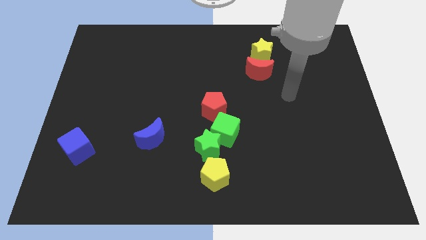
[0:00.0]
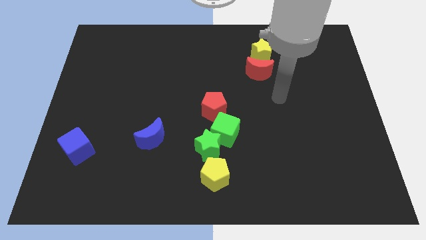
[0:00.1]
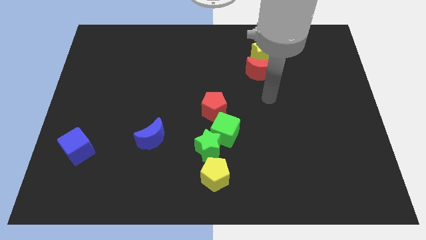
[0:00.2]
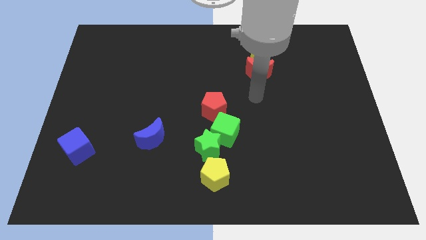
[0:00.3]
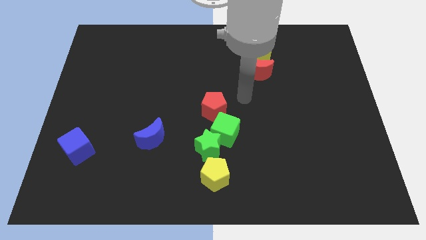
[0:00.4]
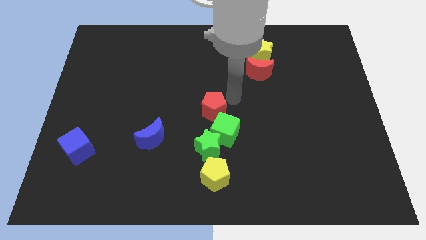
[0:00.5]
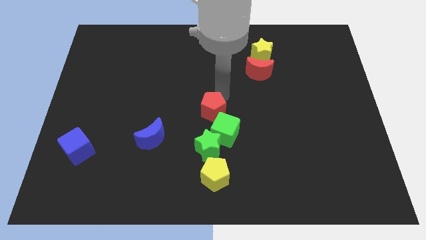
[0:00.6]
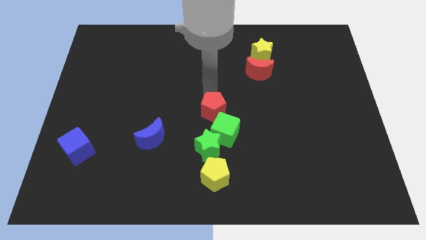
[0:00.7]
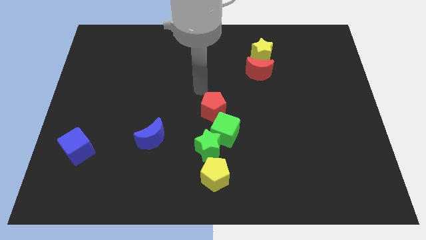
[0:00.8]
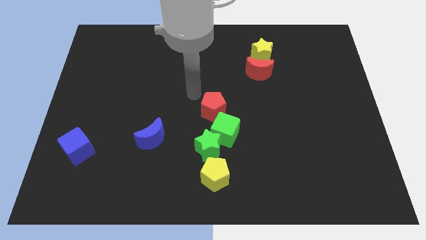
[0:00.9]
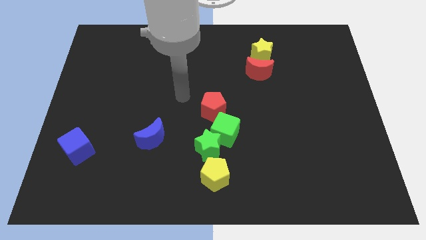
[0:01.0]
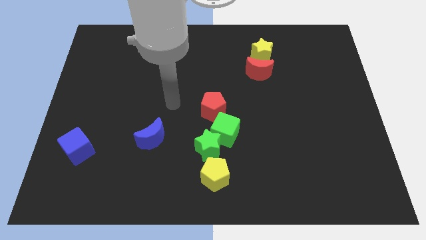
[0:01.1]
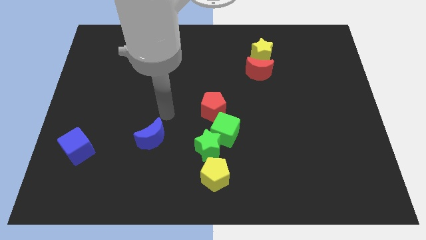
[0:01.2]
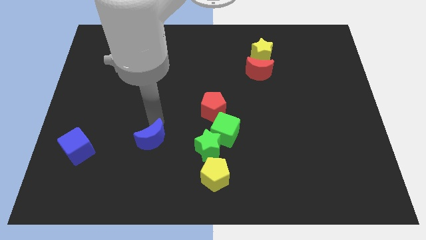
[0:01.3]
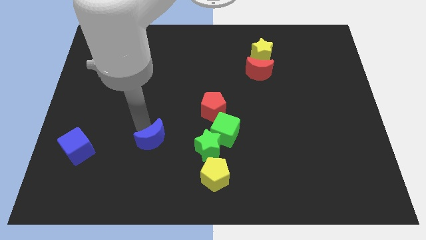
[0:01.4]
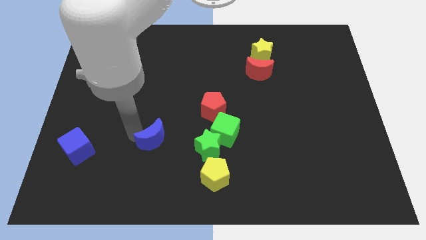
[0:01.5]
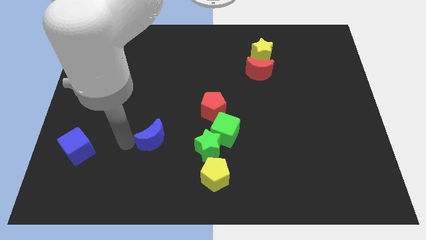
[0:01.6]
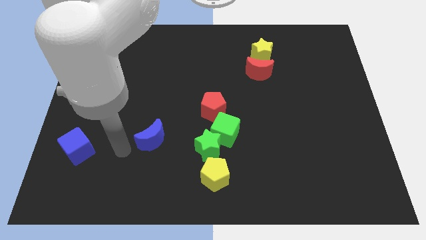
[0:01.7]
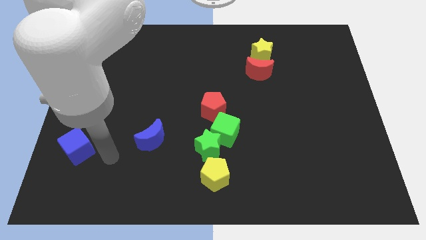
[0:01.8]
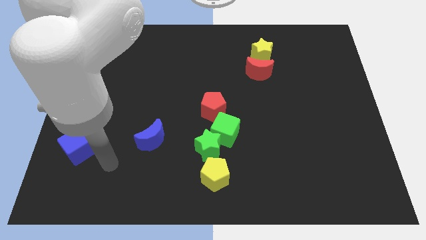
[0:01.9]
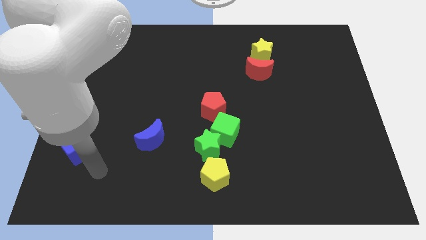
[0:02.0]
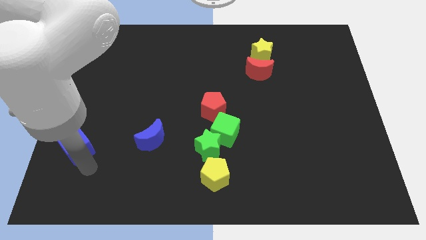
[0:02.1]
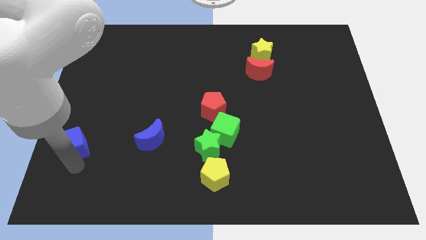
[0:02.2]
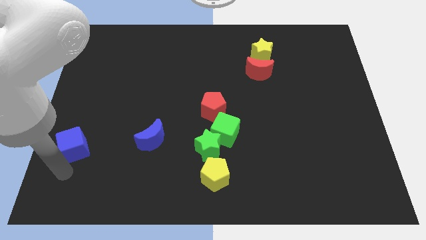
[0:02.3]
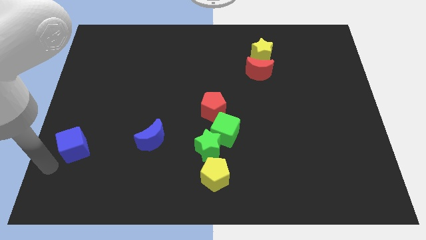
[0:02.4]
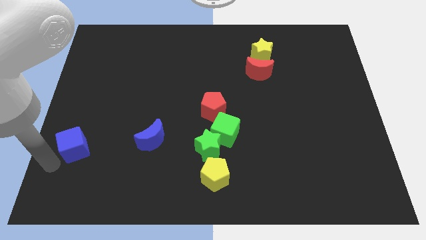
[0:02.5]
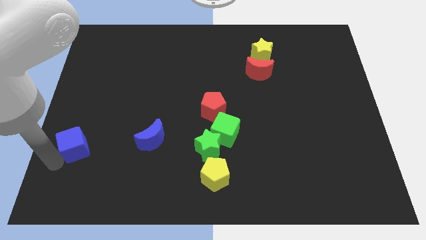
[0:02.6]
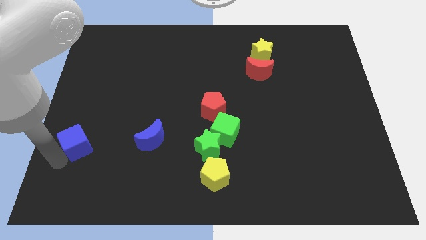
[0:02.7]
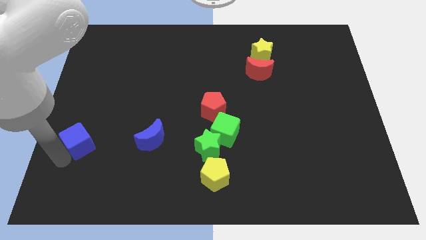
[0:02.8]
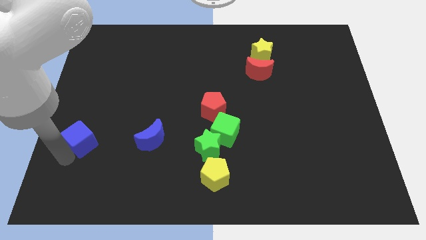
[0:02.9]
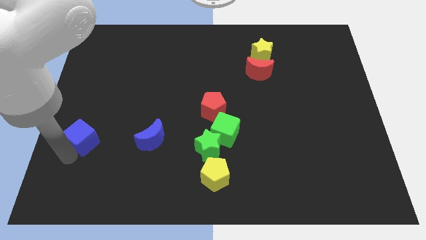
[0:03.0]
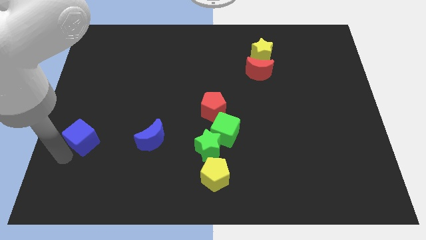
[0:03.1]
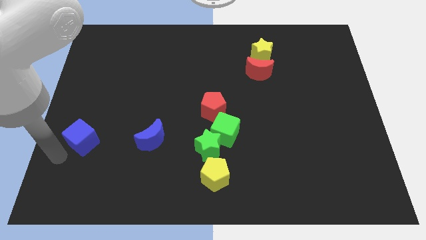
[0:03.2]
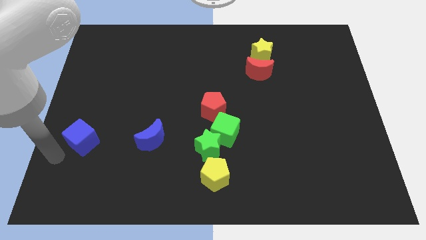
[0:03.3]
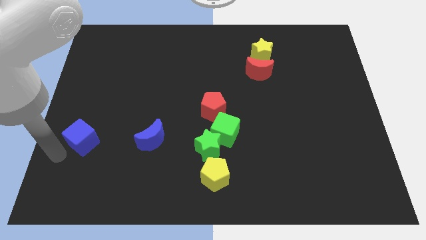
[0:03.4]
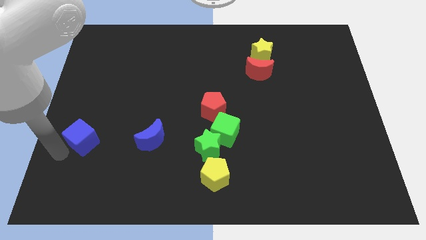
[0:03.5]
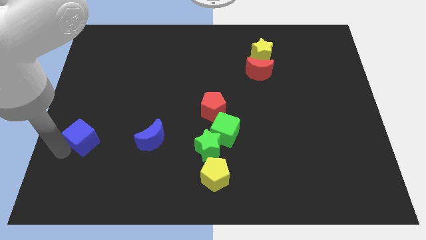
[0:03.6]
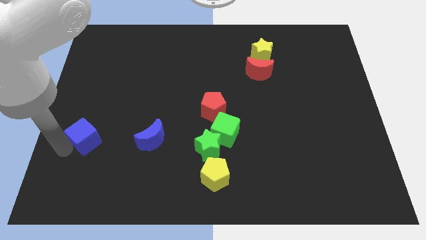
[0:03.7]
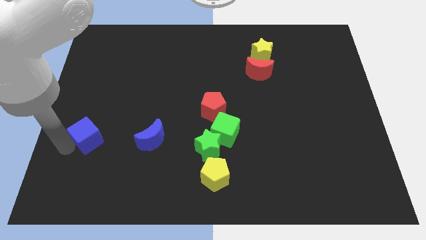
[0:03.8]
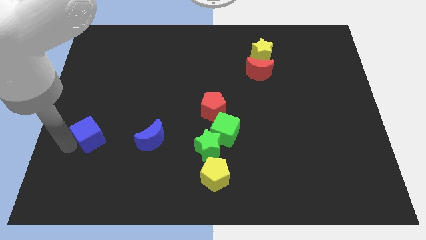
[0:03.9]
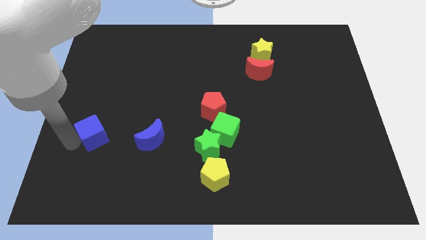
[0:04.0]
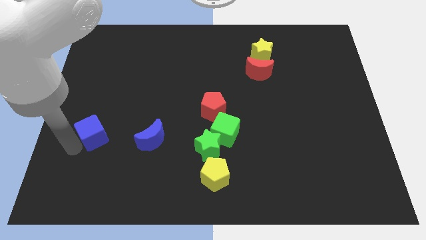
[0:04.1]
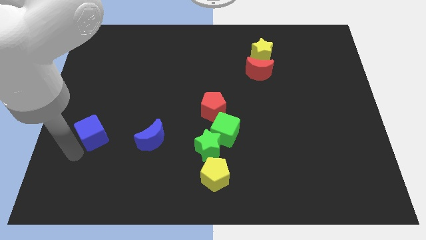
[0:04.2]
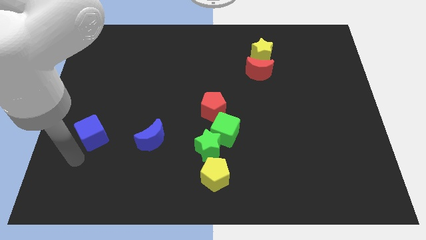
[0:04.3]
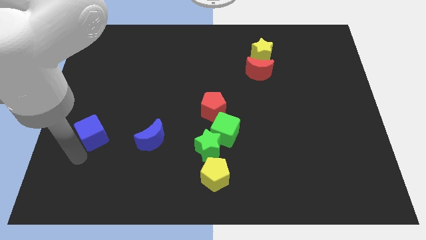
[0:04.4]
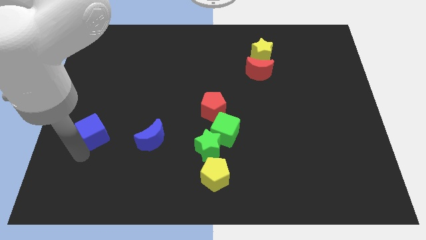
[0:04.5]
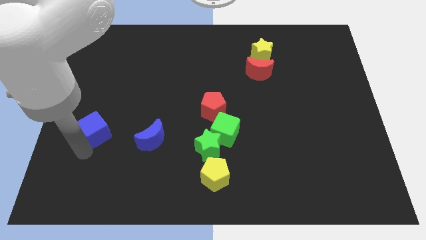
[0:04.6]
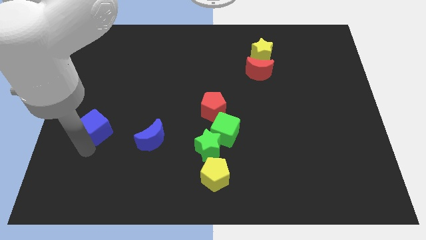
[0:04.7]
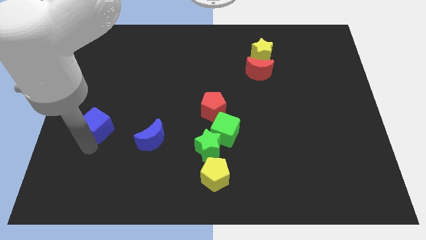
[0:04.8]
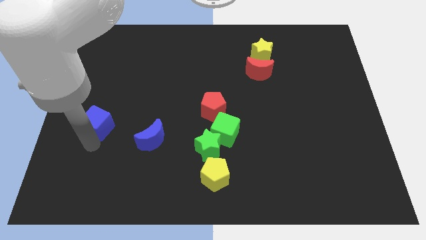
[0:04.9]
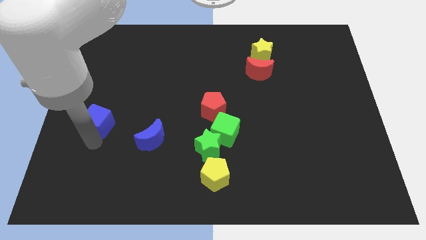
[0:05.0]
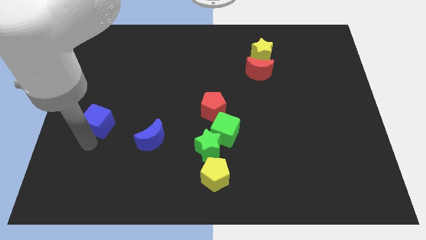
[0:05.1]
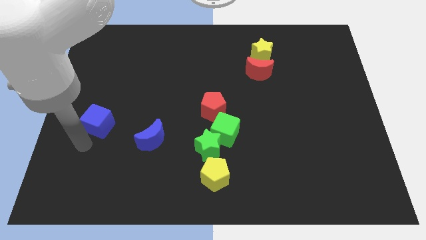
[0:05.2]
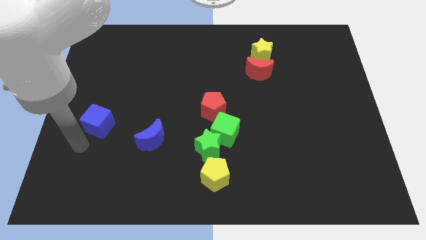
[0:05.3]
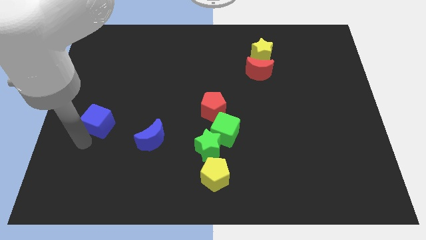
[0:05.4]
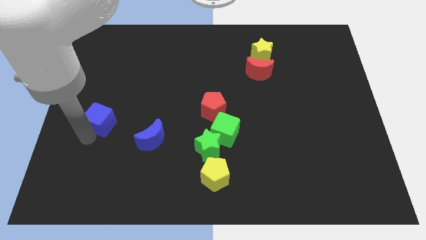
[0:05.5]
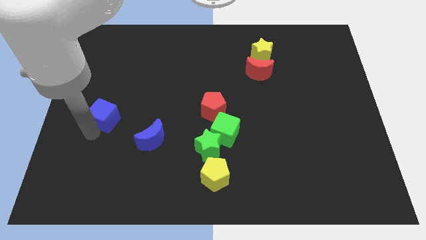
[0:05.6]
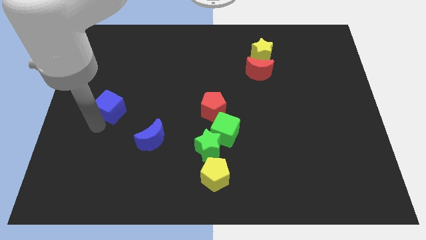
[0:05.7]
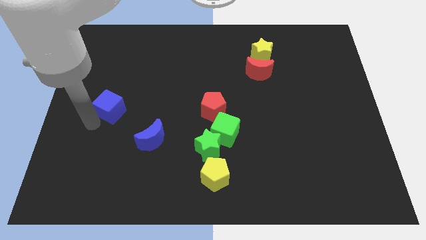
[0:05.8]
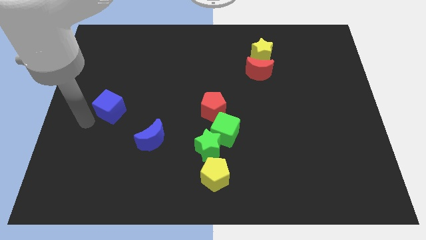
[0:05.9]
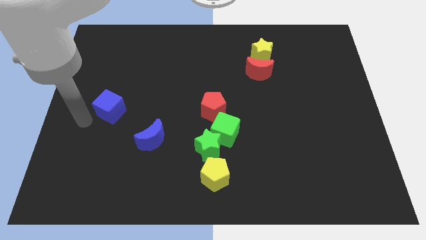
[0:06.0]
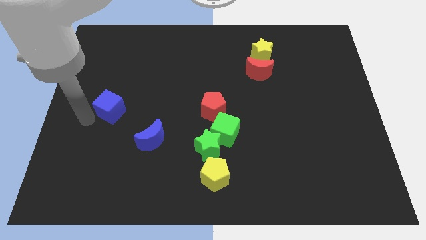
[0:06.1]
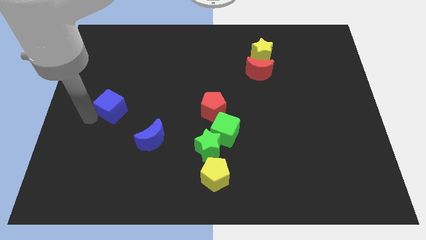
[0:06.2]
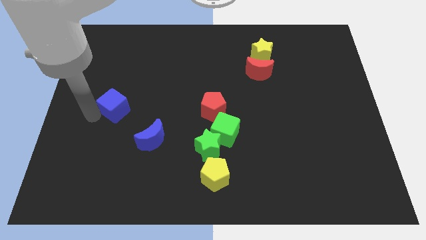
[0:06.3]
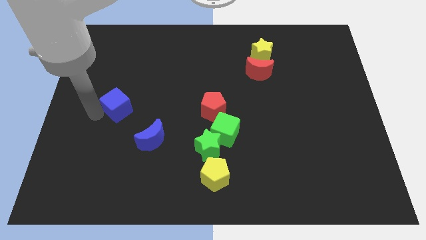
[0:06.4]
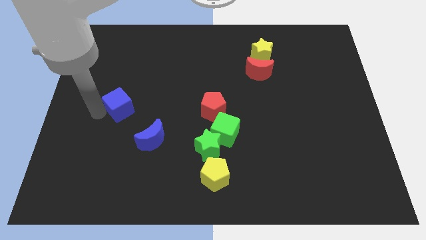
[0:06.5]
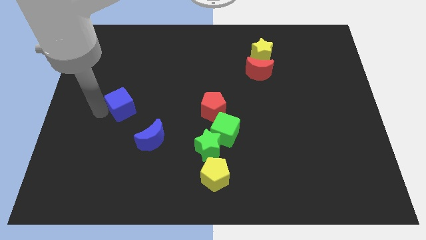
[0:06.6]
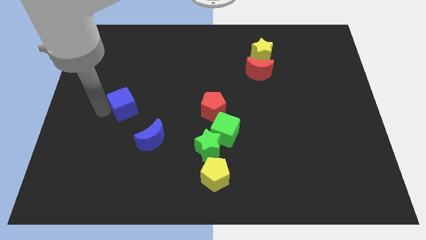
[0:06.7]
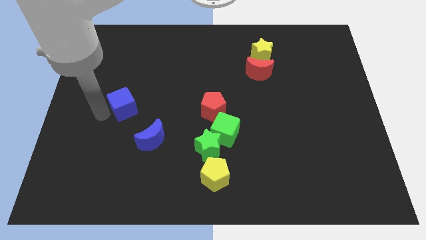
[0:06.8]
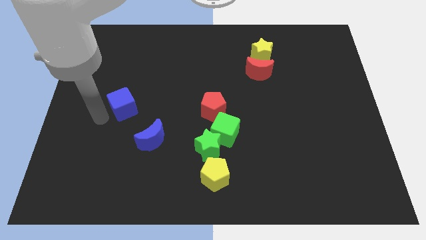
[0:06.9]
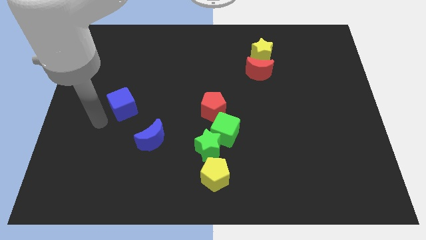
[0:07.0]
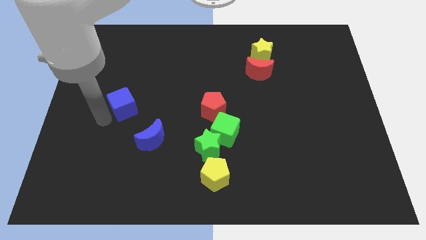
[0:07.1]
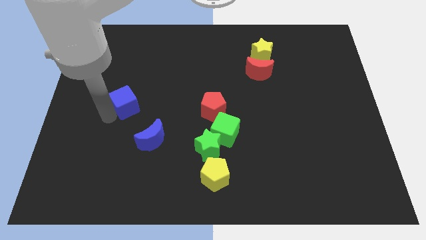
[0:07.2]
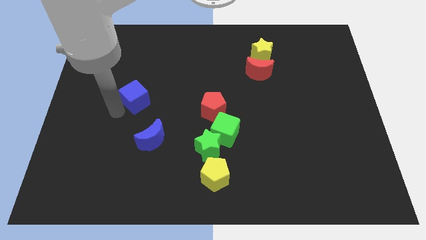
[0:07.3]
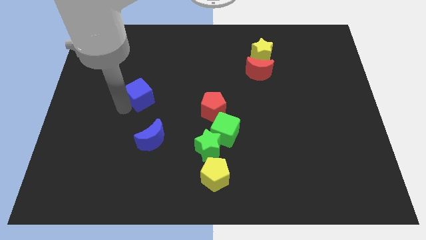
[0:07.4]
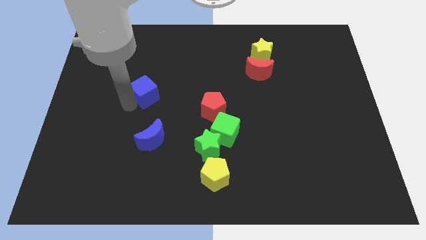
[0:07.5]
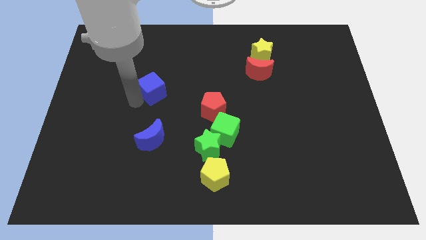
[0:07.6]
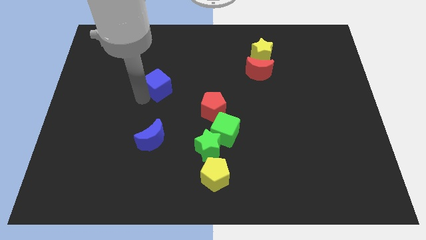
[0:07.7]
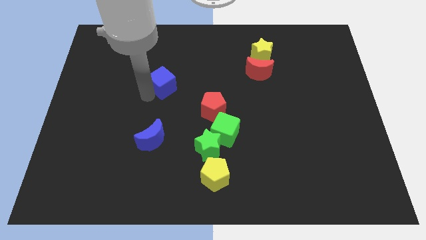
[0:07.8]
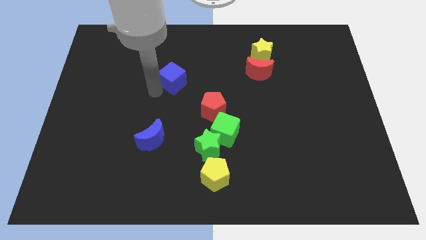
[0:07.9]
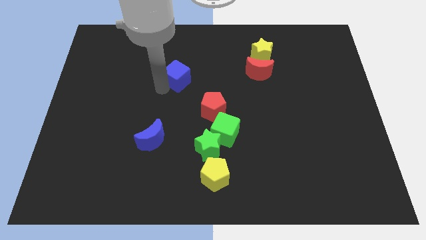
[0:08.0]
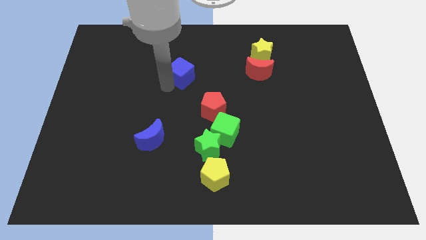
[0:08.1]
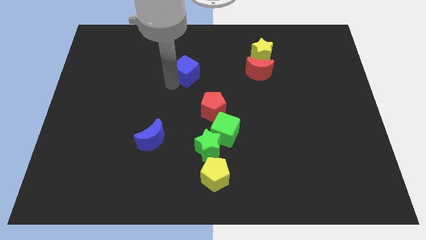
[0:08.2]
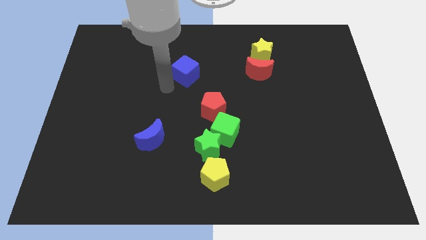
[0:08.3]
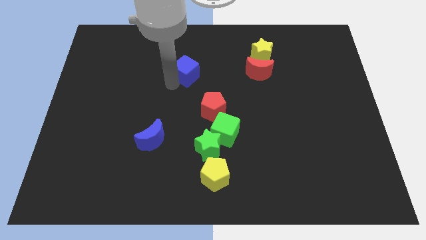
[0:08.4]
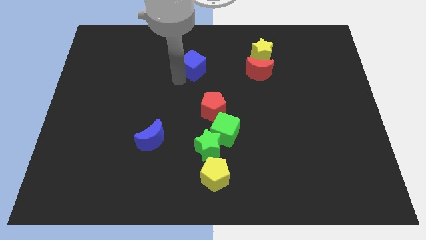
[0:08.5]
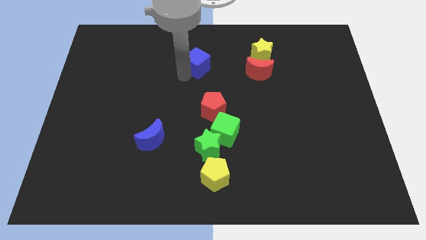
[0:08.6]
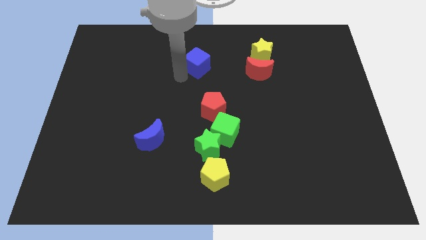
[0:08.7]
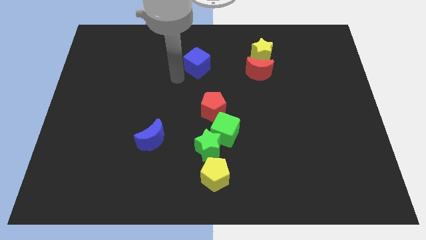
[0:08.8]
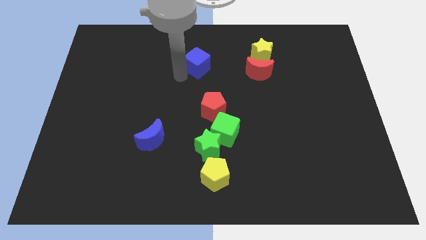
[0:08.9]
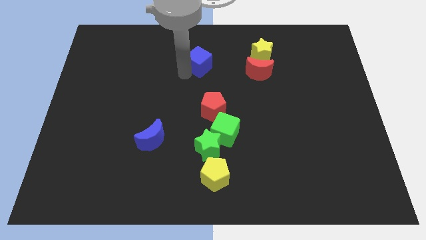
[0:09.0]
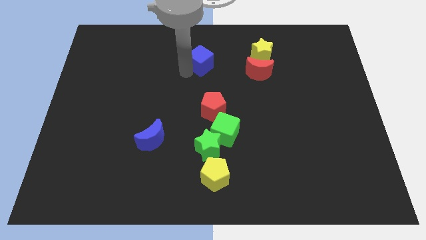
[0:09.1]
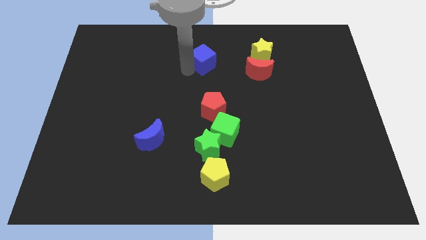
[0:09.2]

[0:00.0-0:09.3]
slide the blue cube left of the yellow star
